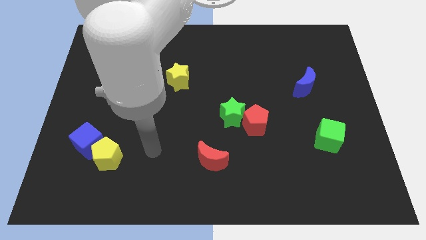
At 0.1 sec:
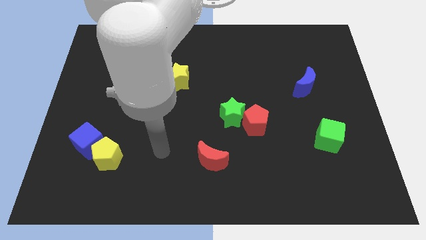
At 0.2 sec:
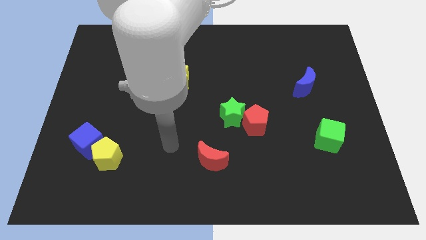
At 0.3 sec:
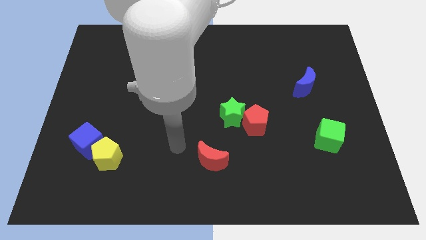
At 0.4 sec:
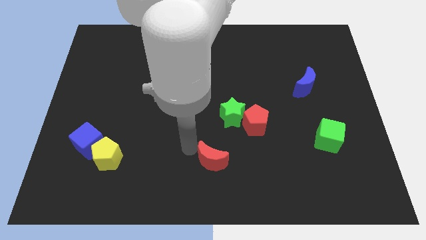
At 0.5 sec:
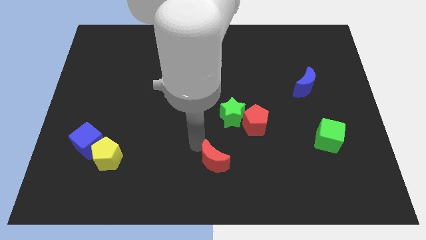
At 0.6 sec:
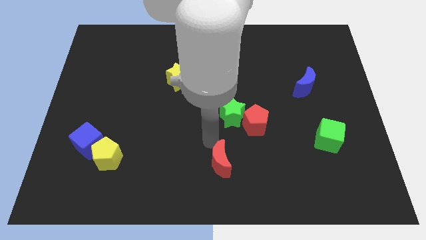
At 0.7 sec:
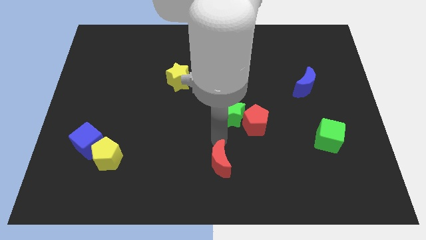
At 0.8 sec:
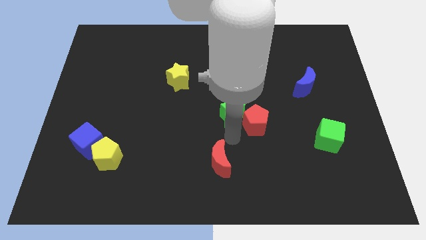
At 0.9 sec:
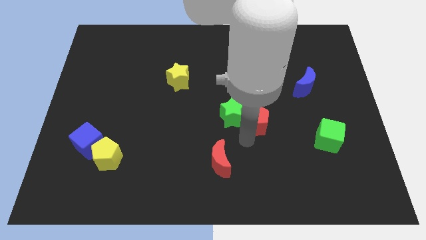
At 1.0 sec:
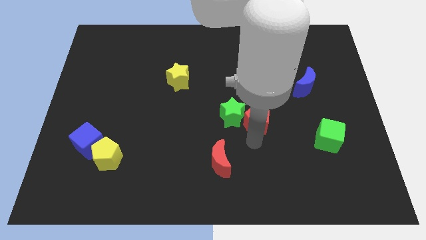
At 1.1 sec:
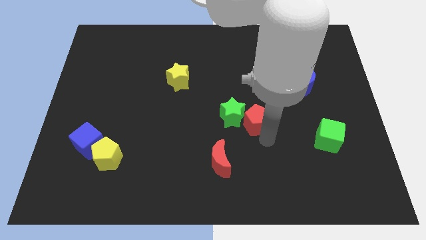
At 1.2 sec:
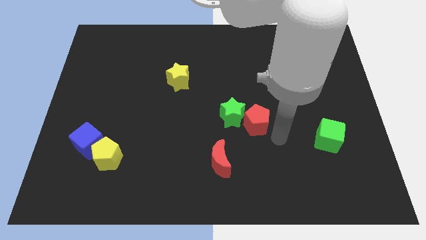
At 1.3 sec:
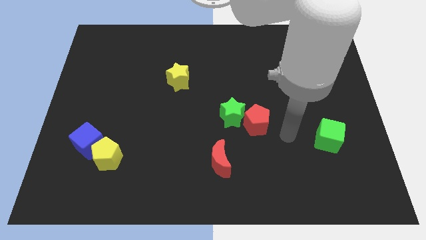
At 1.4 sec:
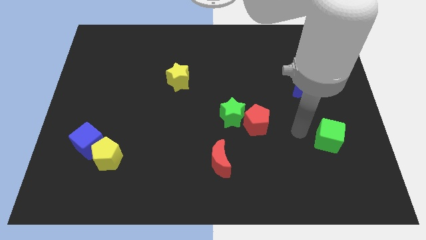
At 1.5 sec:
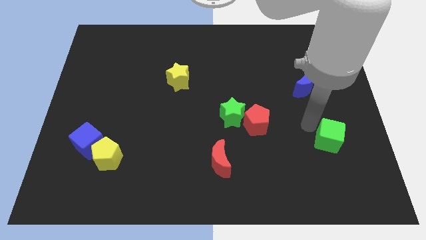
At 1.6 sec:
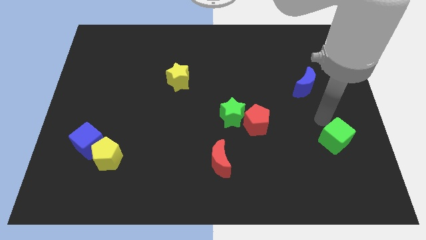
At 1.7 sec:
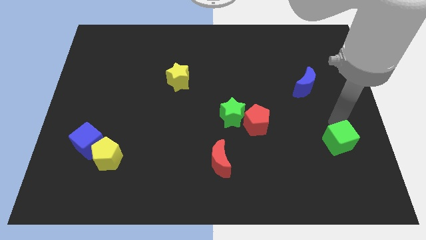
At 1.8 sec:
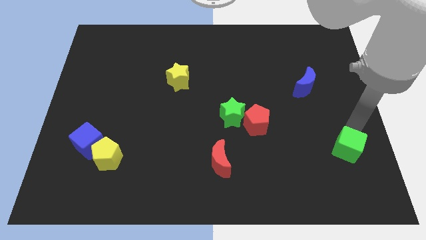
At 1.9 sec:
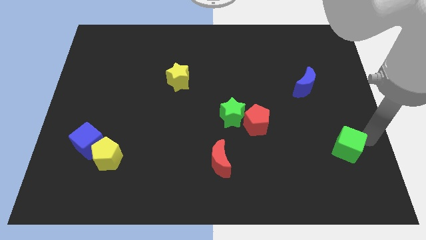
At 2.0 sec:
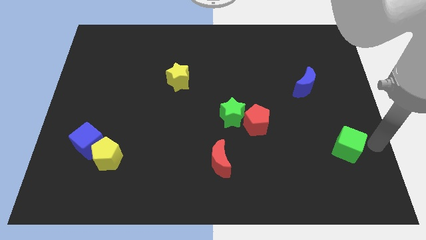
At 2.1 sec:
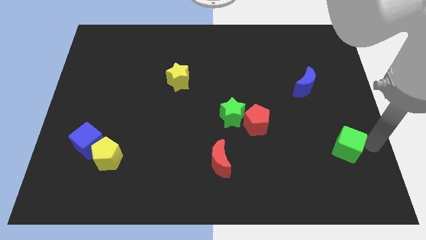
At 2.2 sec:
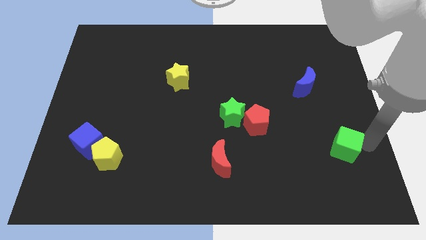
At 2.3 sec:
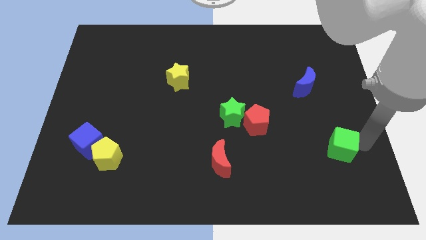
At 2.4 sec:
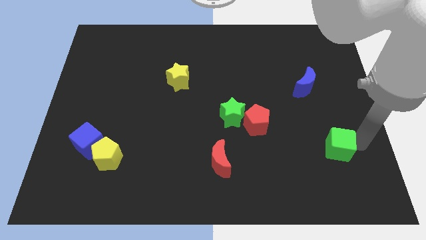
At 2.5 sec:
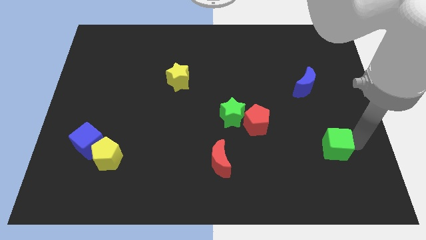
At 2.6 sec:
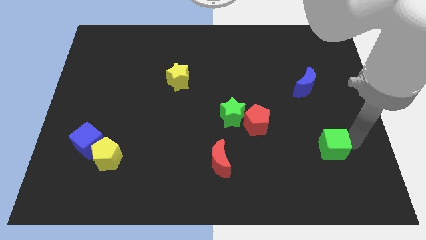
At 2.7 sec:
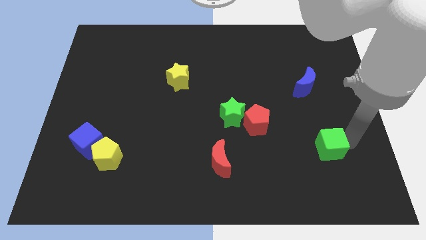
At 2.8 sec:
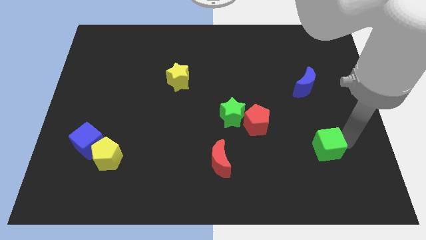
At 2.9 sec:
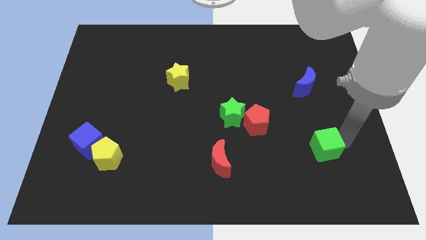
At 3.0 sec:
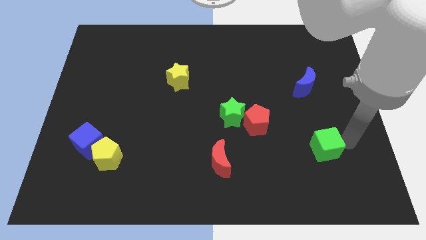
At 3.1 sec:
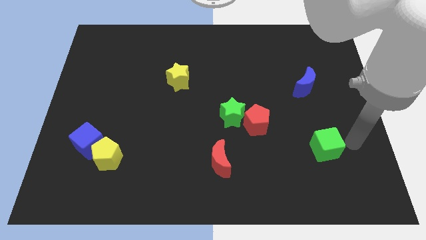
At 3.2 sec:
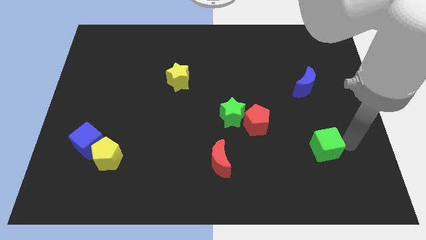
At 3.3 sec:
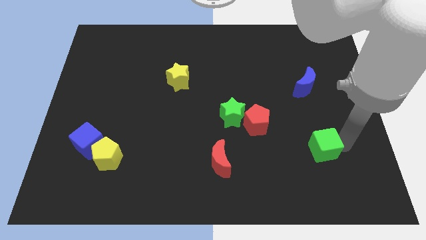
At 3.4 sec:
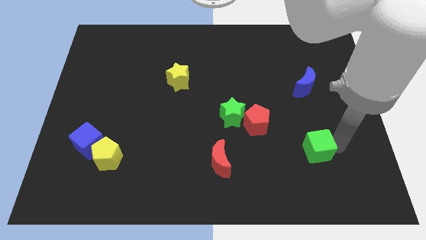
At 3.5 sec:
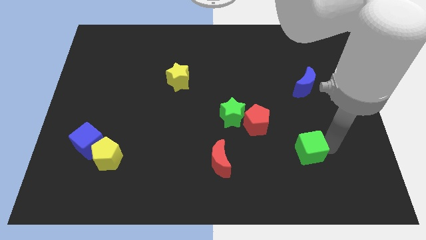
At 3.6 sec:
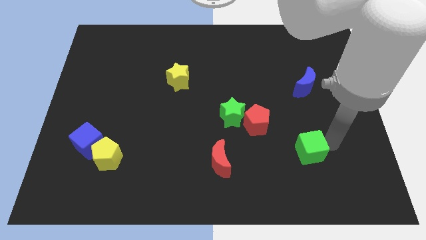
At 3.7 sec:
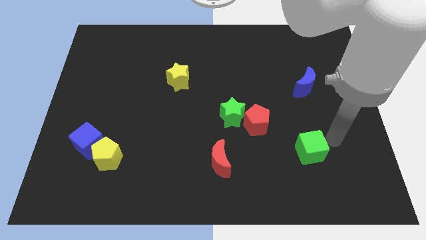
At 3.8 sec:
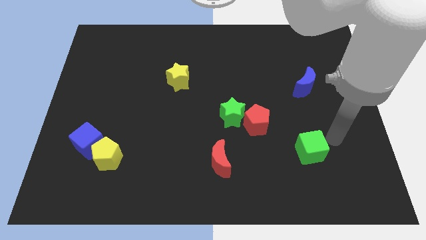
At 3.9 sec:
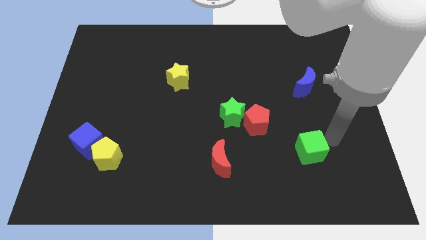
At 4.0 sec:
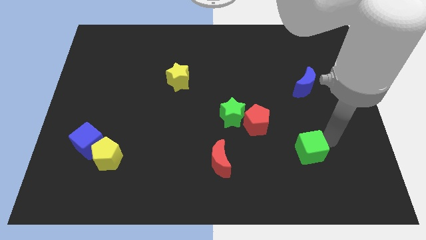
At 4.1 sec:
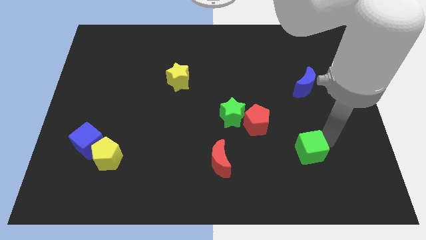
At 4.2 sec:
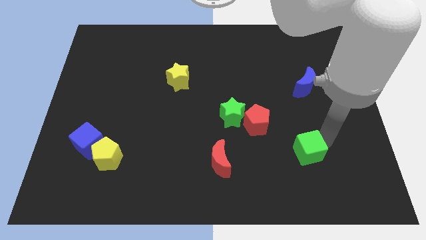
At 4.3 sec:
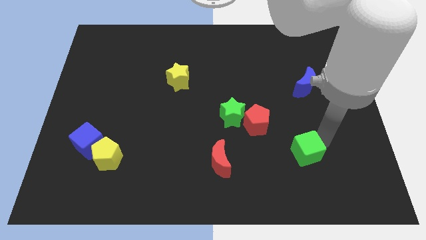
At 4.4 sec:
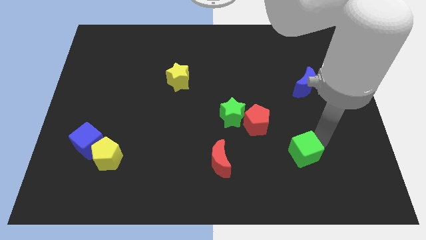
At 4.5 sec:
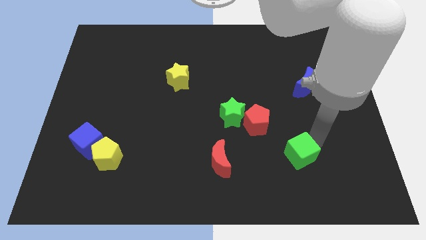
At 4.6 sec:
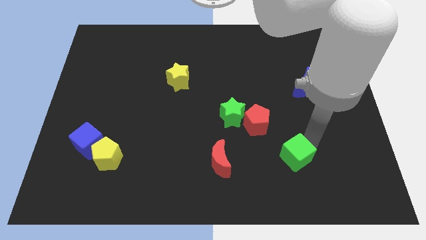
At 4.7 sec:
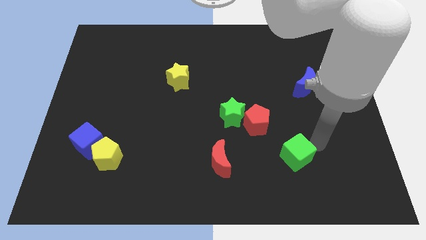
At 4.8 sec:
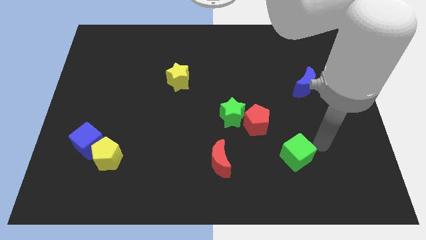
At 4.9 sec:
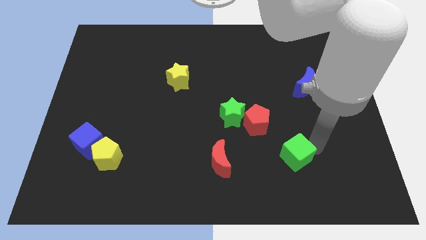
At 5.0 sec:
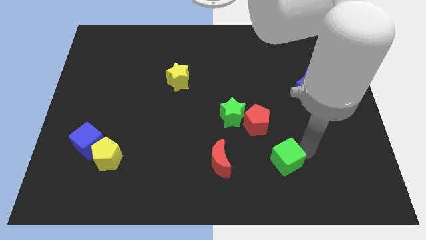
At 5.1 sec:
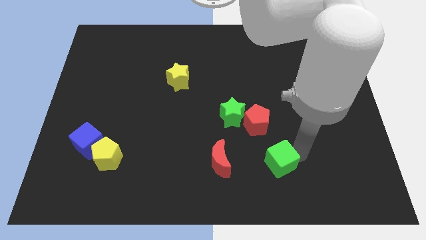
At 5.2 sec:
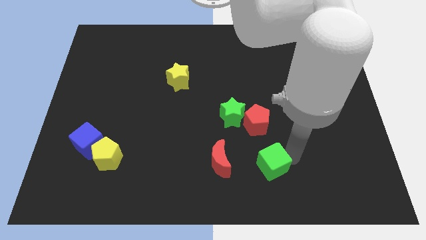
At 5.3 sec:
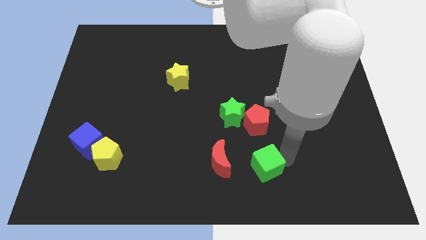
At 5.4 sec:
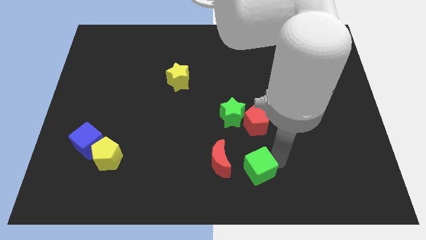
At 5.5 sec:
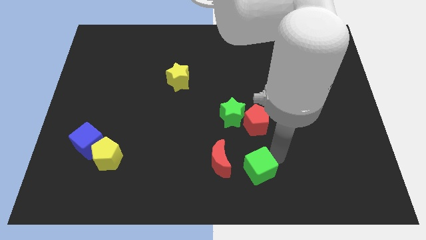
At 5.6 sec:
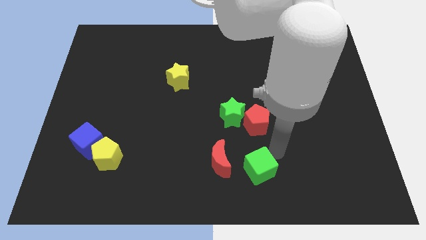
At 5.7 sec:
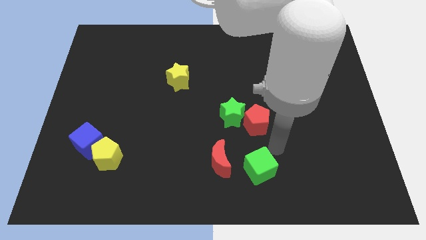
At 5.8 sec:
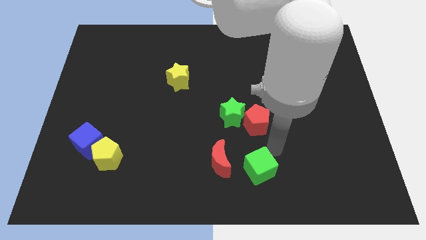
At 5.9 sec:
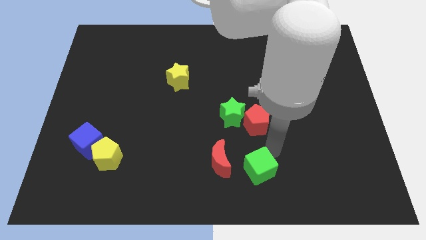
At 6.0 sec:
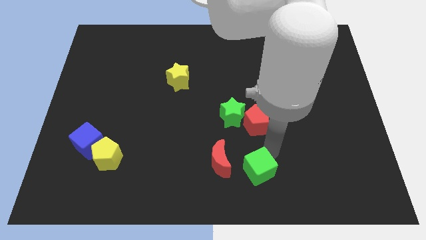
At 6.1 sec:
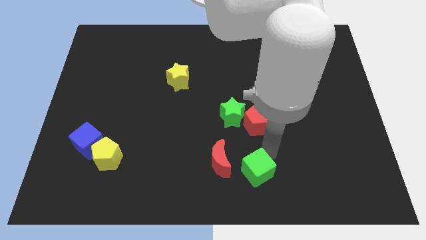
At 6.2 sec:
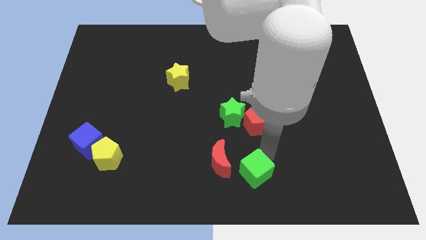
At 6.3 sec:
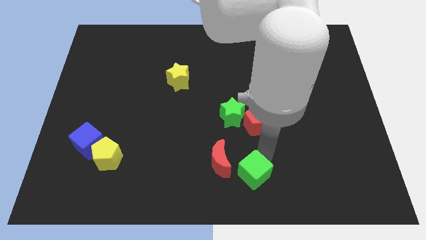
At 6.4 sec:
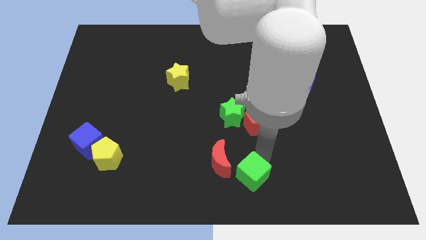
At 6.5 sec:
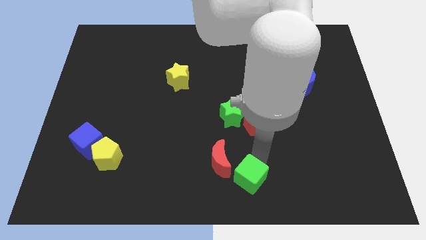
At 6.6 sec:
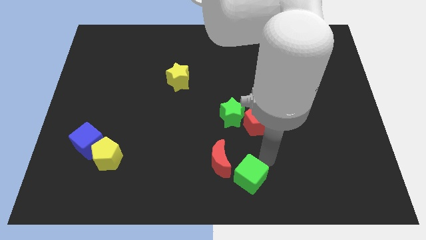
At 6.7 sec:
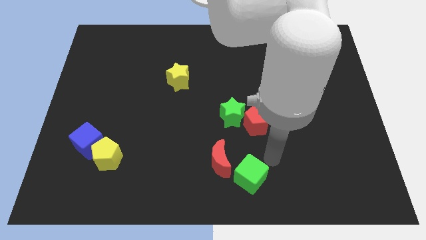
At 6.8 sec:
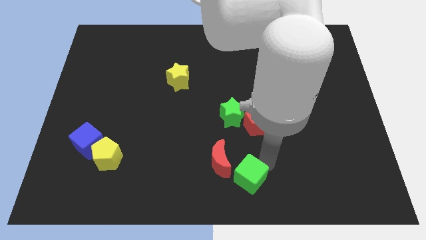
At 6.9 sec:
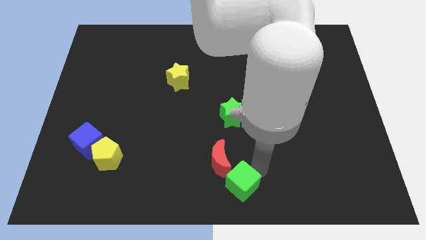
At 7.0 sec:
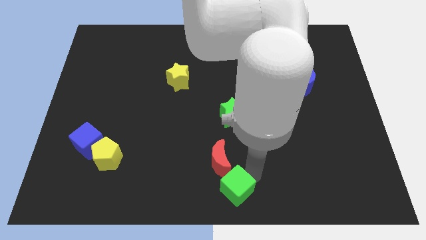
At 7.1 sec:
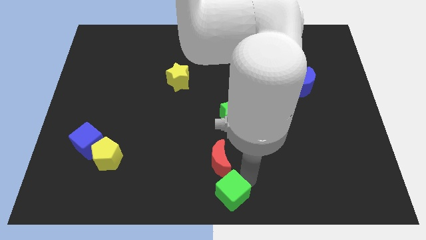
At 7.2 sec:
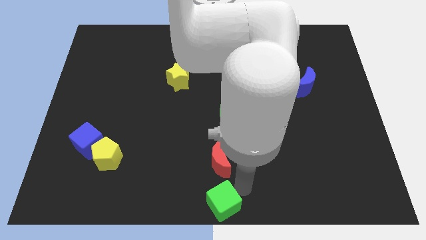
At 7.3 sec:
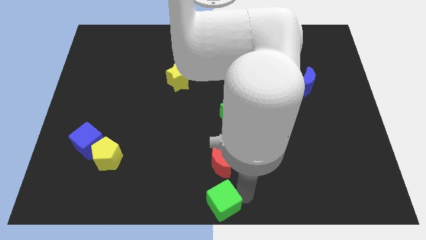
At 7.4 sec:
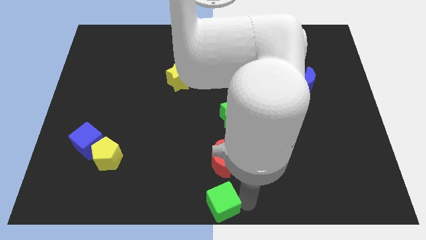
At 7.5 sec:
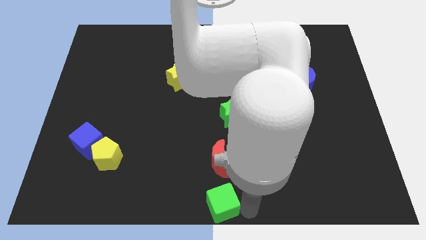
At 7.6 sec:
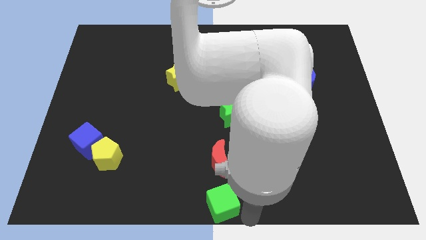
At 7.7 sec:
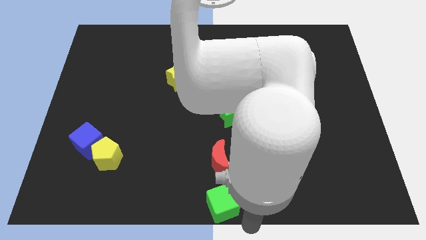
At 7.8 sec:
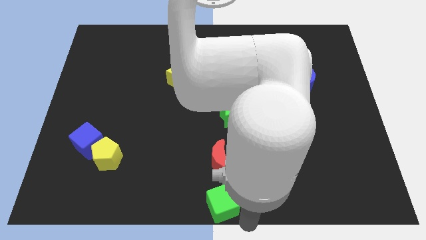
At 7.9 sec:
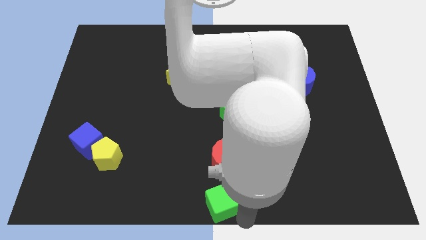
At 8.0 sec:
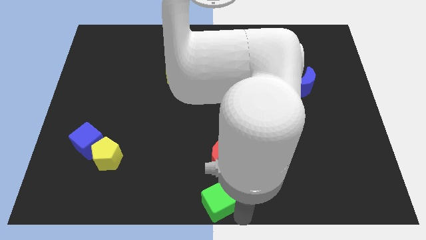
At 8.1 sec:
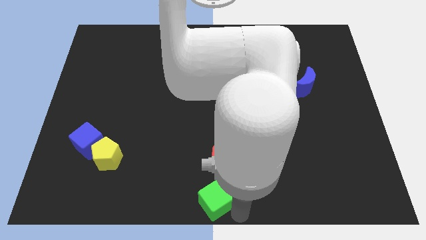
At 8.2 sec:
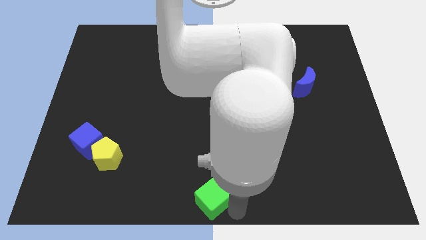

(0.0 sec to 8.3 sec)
put the green cube diagonally down and to the left of the red moon
